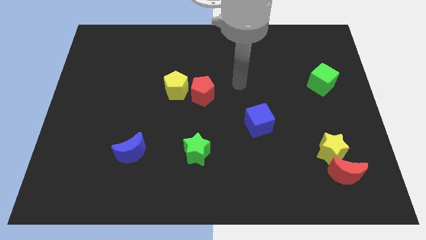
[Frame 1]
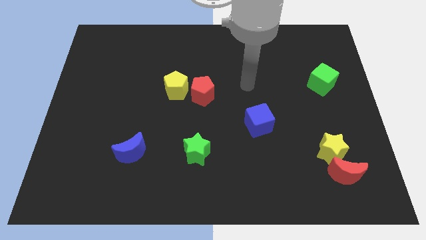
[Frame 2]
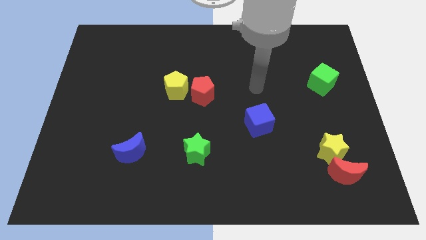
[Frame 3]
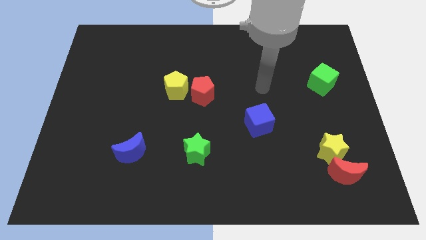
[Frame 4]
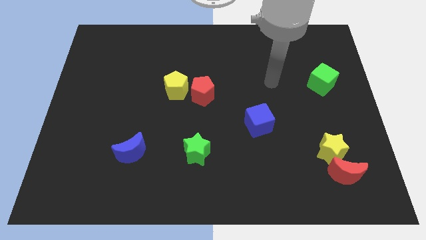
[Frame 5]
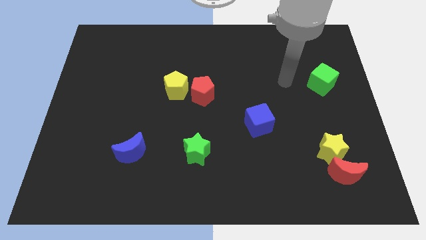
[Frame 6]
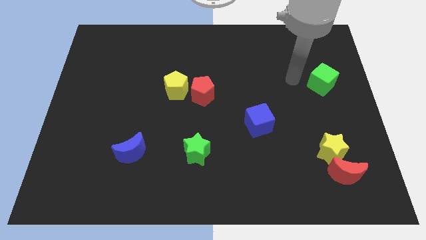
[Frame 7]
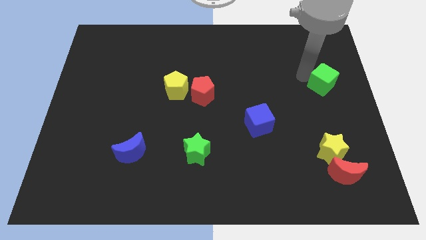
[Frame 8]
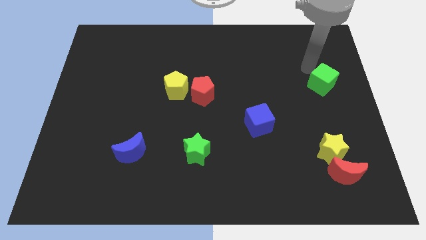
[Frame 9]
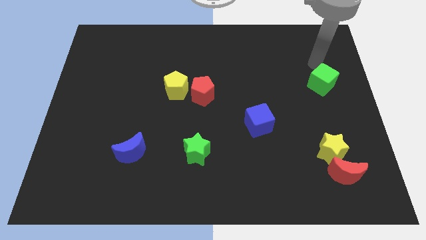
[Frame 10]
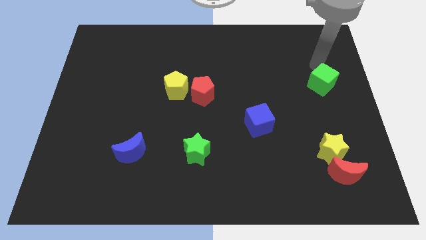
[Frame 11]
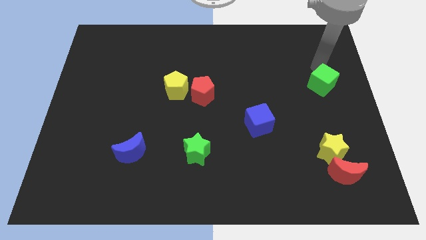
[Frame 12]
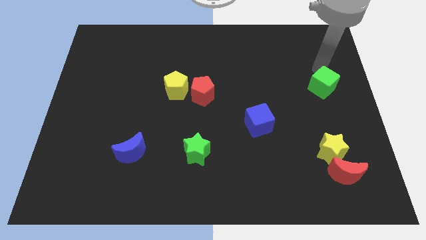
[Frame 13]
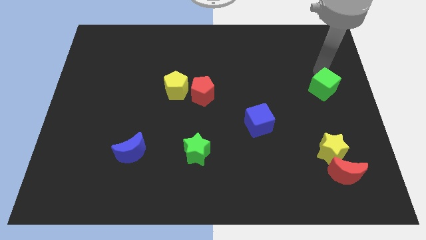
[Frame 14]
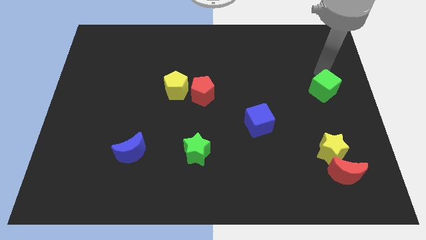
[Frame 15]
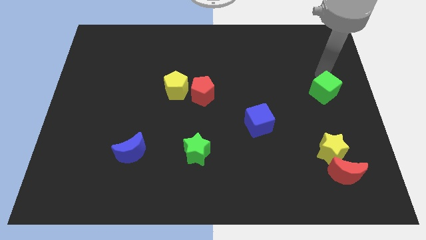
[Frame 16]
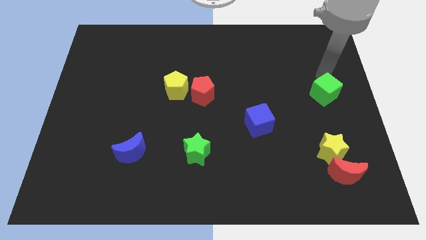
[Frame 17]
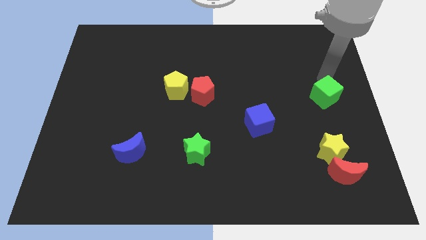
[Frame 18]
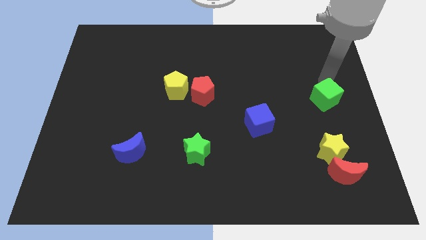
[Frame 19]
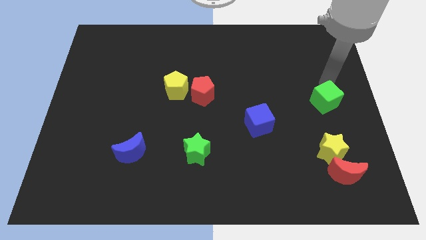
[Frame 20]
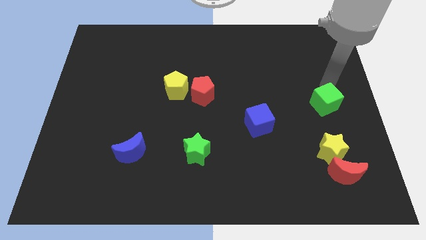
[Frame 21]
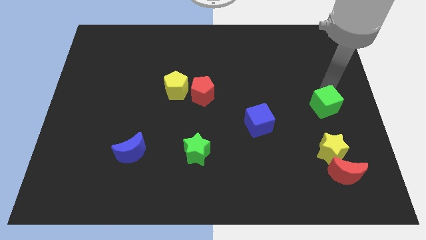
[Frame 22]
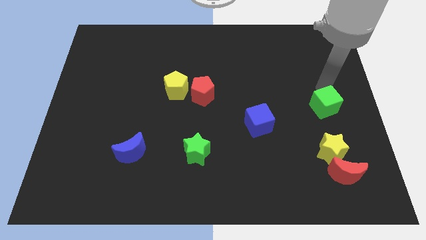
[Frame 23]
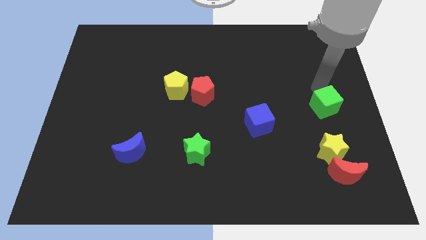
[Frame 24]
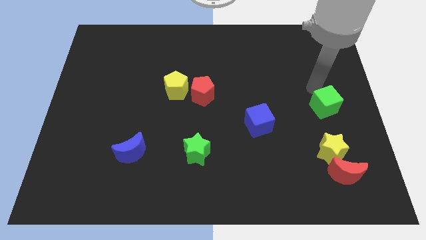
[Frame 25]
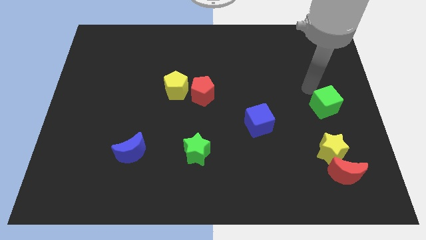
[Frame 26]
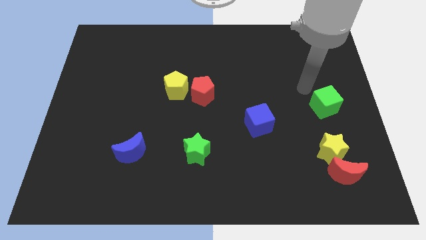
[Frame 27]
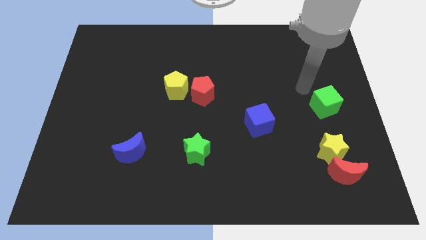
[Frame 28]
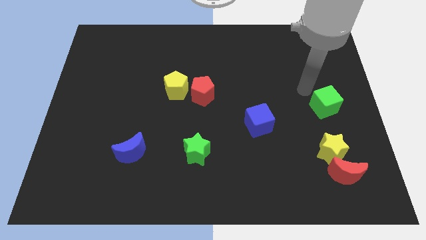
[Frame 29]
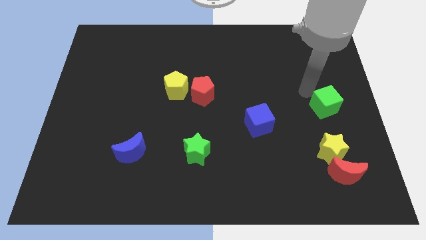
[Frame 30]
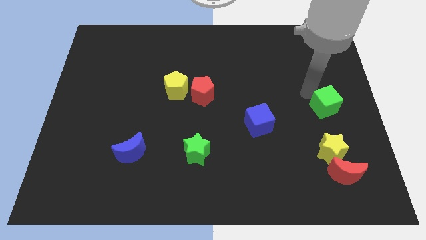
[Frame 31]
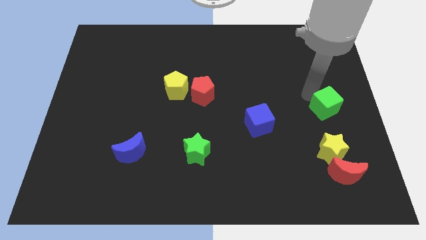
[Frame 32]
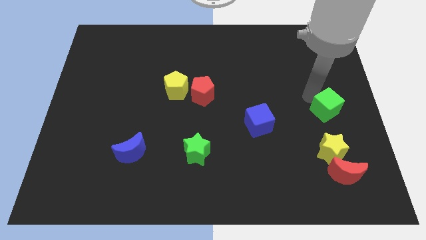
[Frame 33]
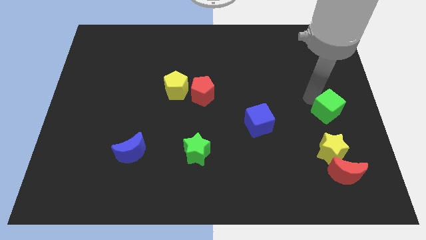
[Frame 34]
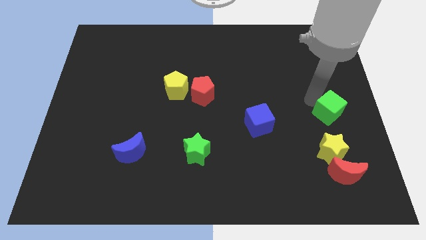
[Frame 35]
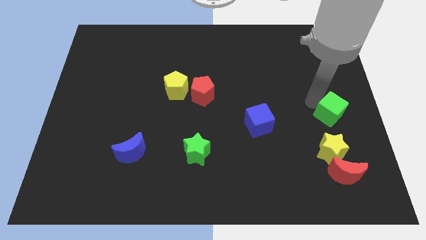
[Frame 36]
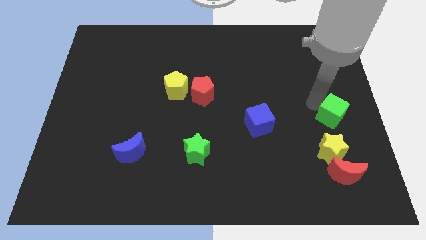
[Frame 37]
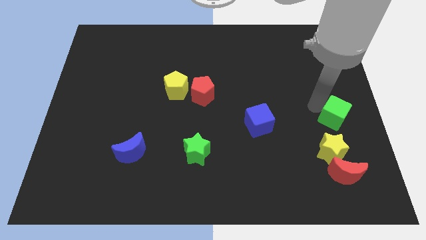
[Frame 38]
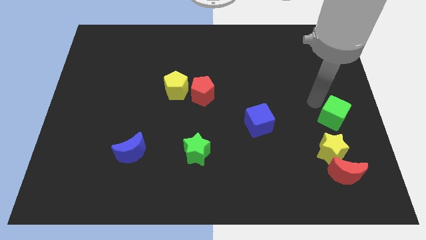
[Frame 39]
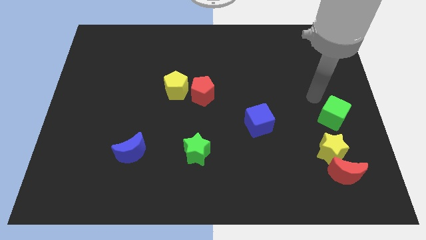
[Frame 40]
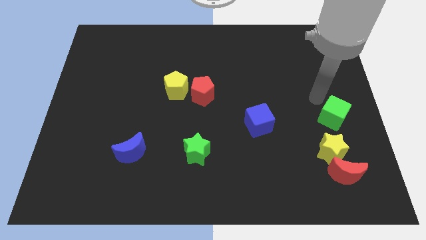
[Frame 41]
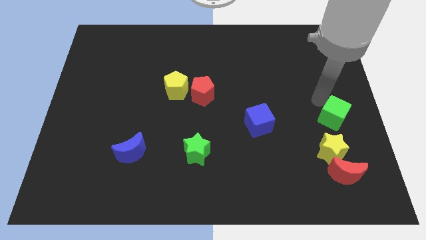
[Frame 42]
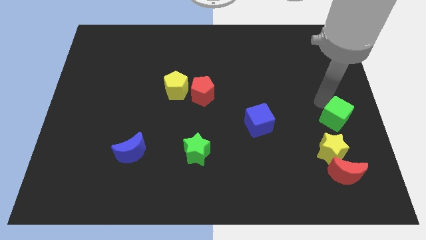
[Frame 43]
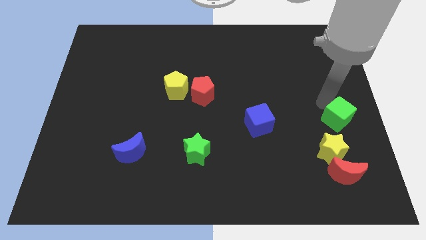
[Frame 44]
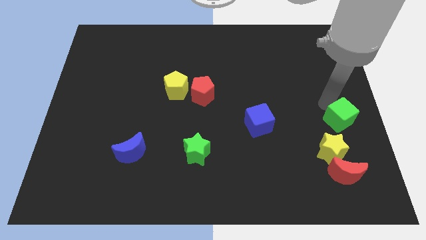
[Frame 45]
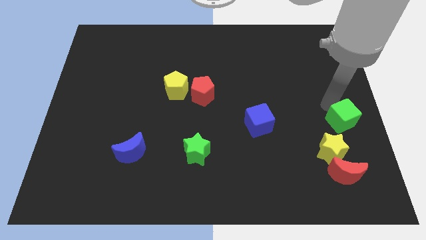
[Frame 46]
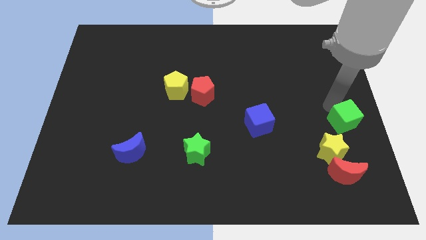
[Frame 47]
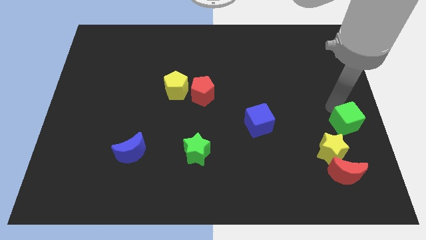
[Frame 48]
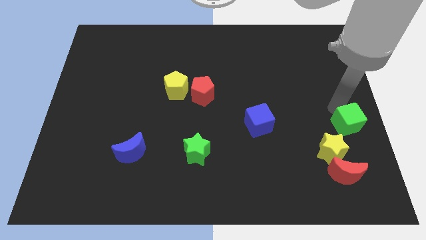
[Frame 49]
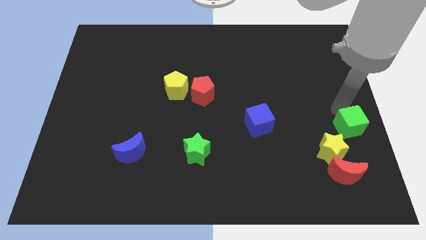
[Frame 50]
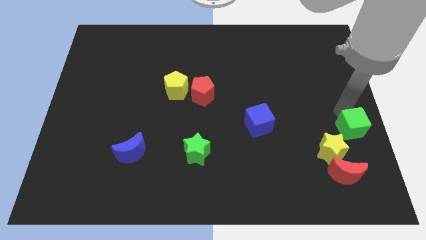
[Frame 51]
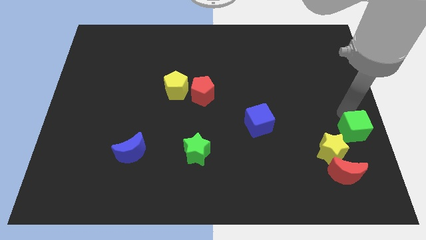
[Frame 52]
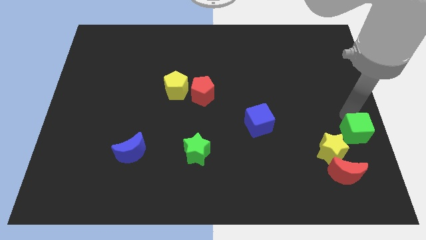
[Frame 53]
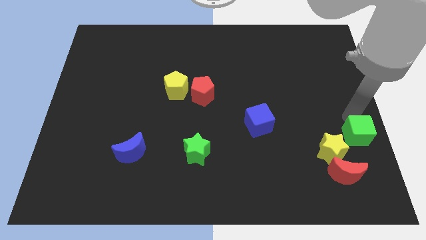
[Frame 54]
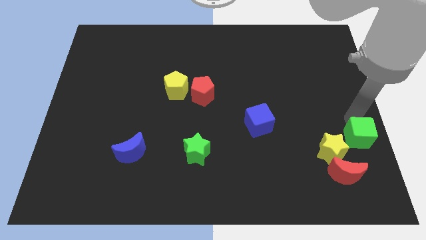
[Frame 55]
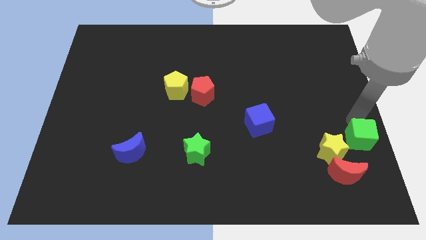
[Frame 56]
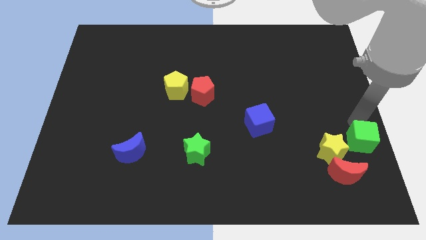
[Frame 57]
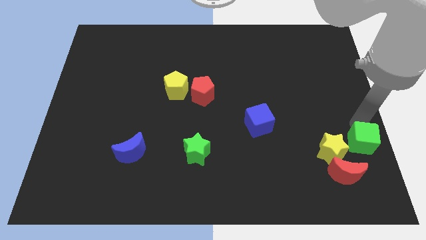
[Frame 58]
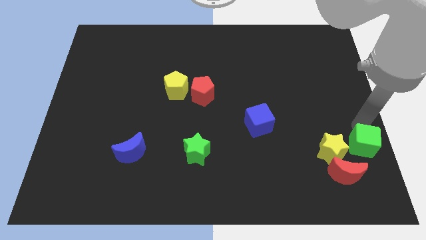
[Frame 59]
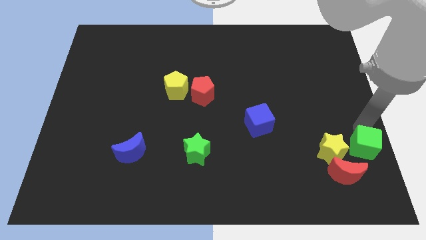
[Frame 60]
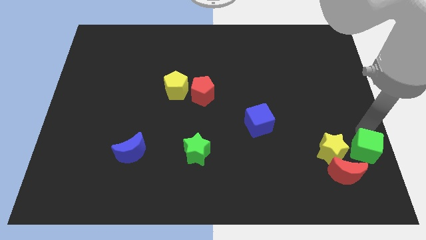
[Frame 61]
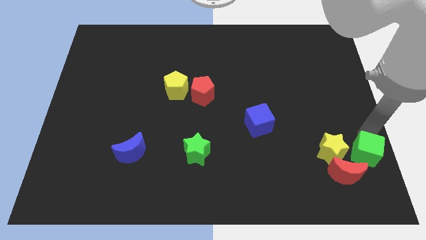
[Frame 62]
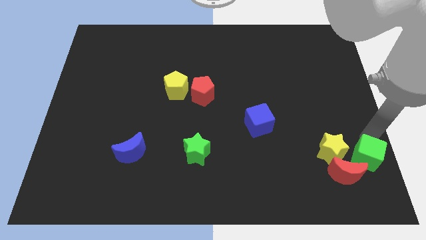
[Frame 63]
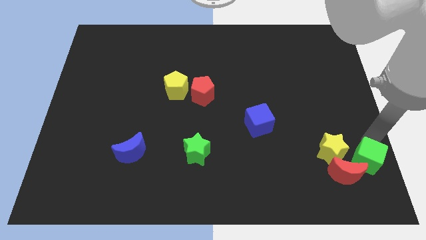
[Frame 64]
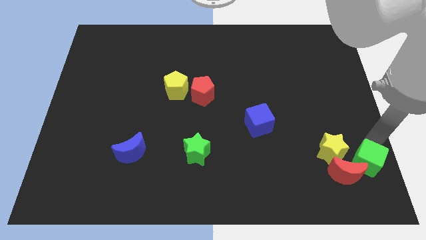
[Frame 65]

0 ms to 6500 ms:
push the green cube close to the red moon
